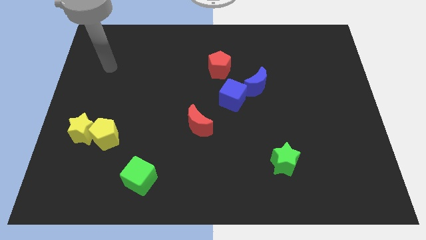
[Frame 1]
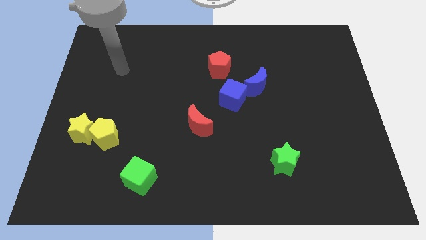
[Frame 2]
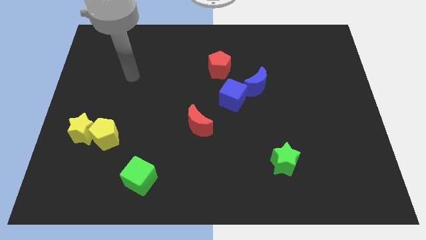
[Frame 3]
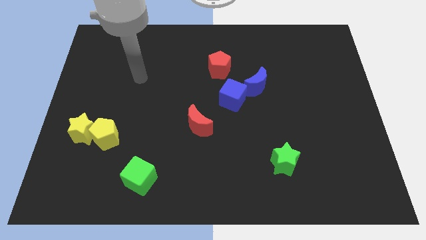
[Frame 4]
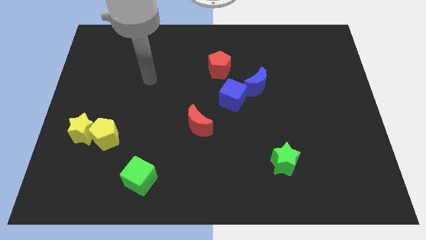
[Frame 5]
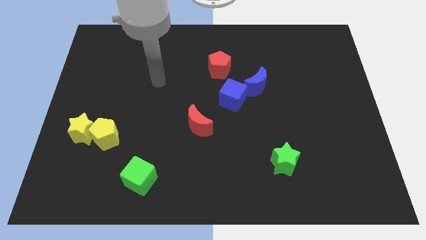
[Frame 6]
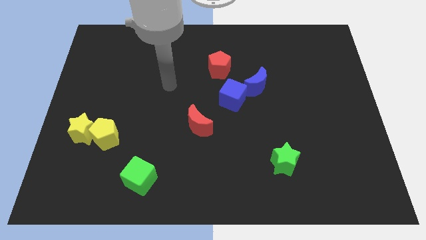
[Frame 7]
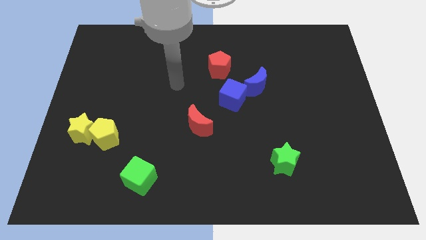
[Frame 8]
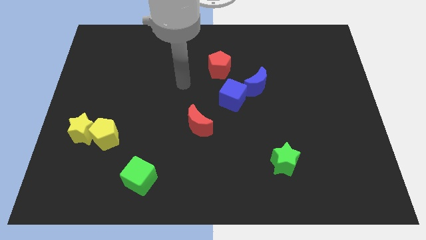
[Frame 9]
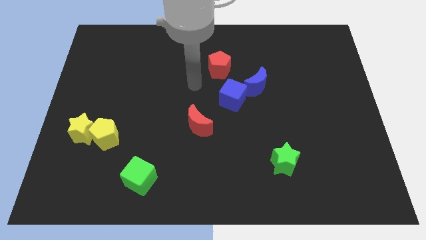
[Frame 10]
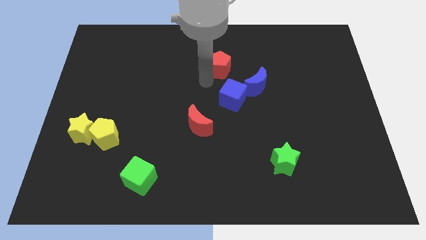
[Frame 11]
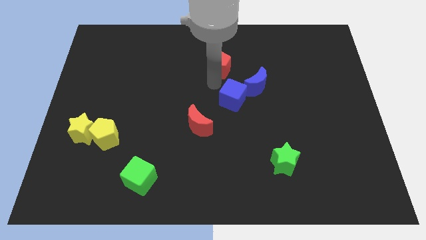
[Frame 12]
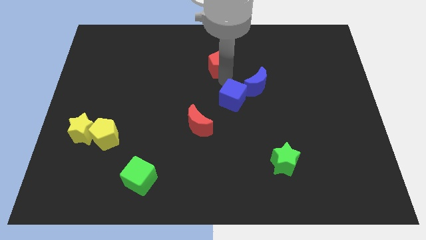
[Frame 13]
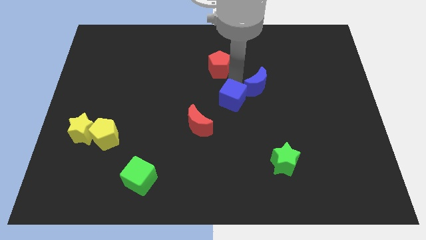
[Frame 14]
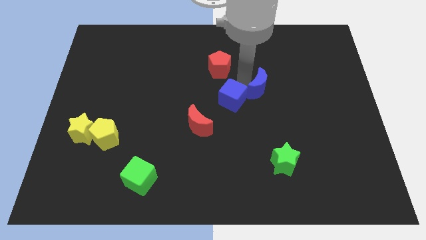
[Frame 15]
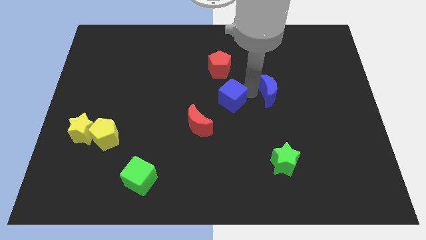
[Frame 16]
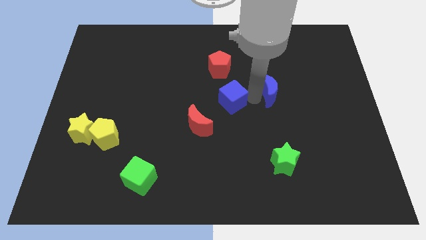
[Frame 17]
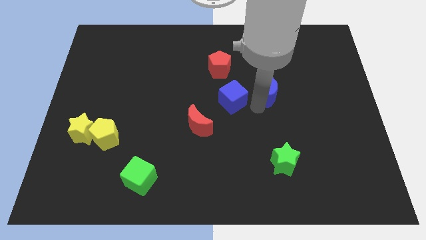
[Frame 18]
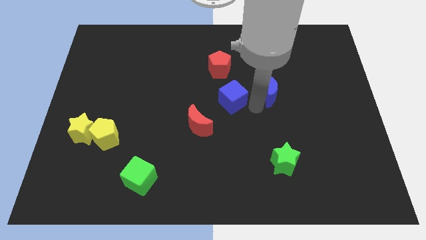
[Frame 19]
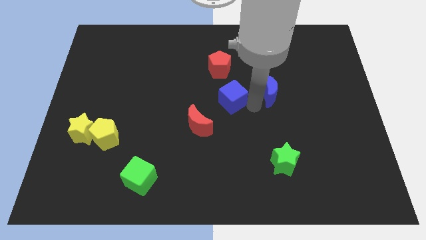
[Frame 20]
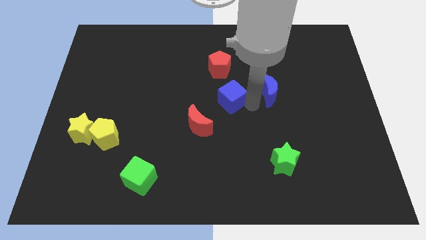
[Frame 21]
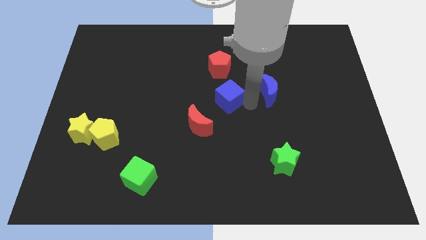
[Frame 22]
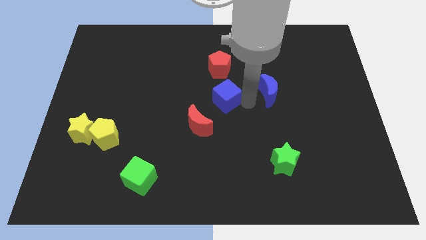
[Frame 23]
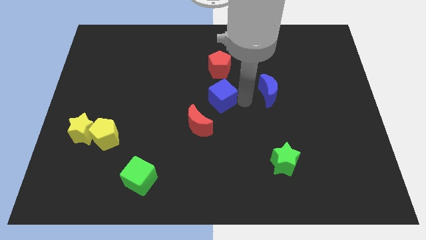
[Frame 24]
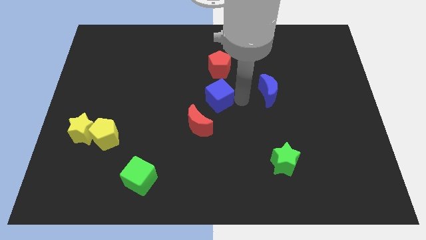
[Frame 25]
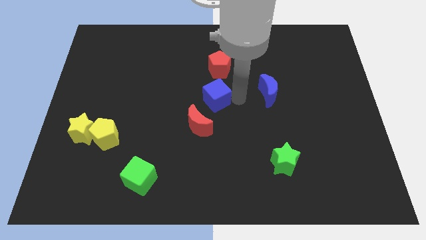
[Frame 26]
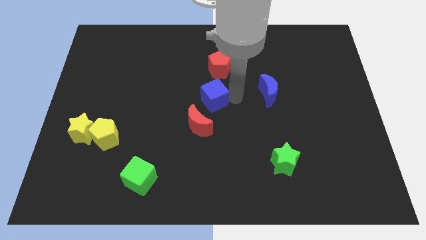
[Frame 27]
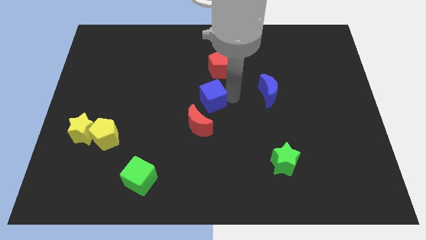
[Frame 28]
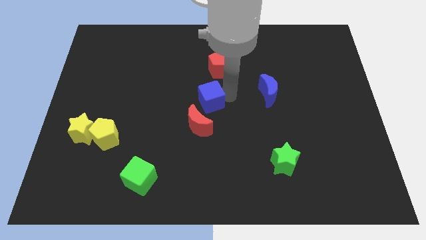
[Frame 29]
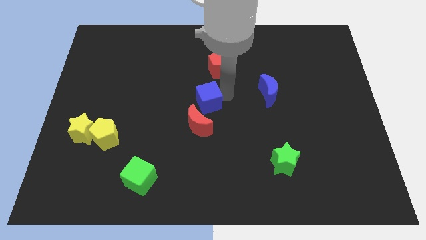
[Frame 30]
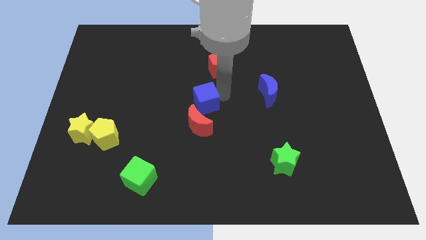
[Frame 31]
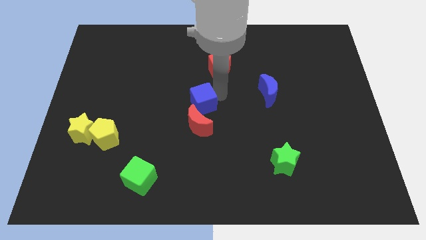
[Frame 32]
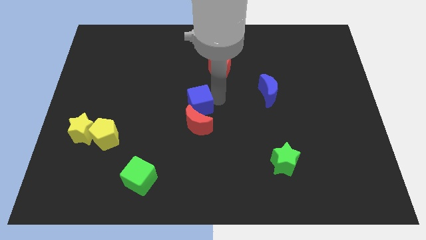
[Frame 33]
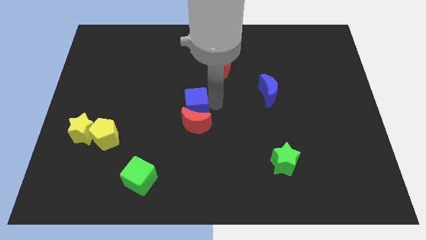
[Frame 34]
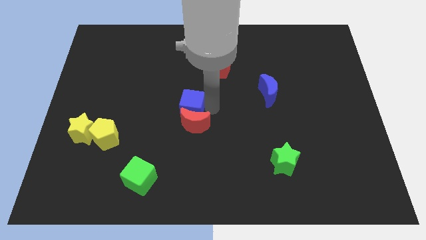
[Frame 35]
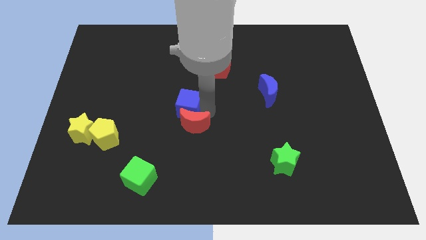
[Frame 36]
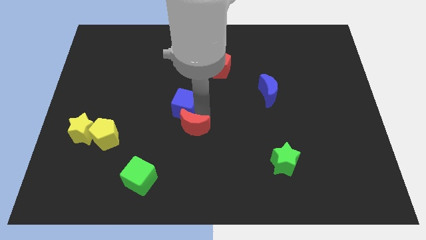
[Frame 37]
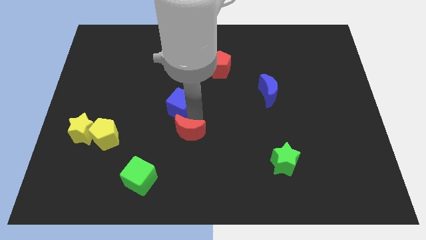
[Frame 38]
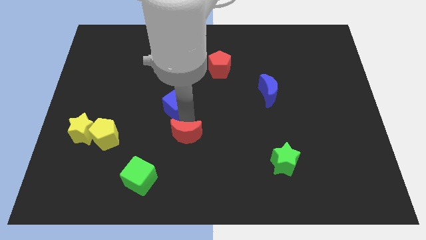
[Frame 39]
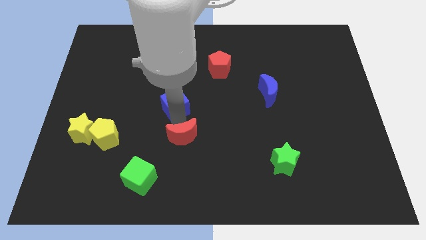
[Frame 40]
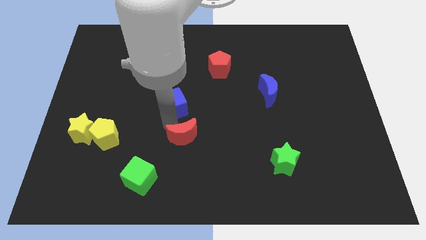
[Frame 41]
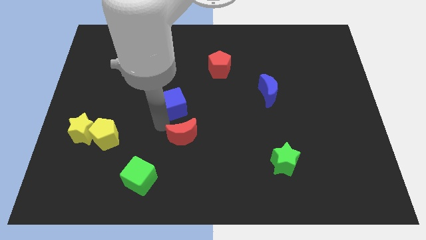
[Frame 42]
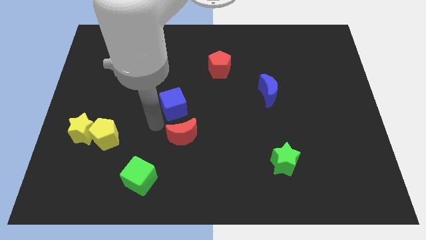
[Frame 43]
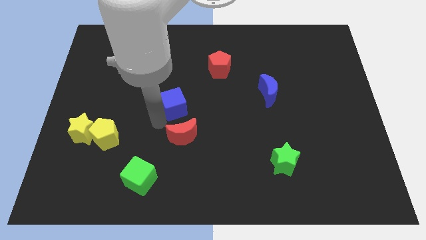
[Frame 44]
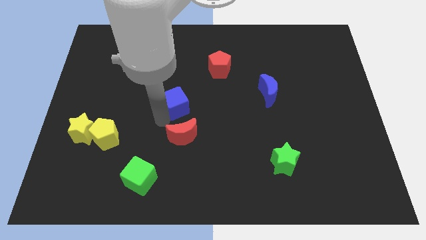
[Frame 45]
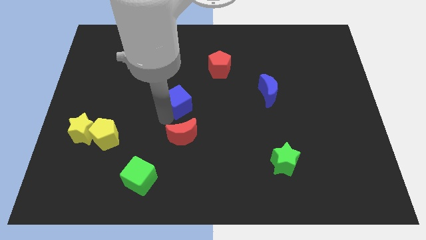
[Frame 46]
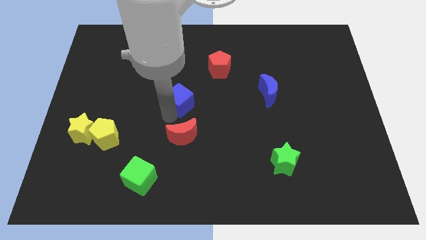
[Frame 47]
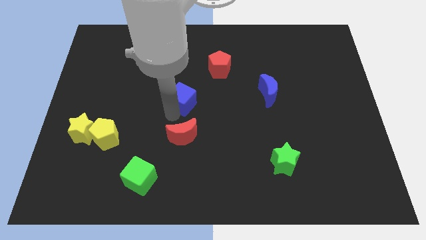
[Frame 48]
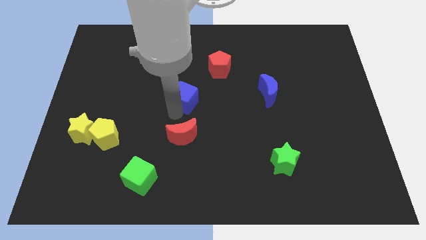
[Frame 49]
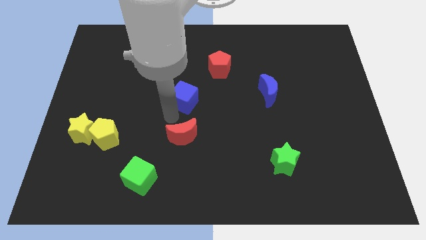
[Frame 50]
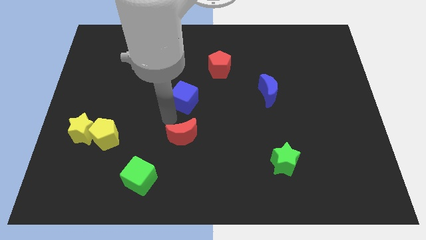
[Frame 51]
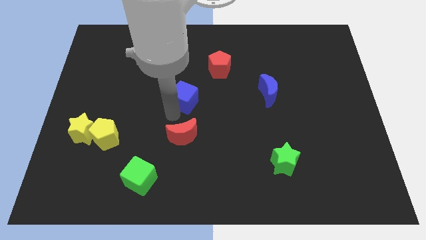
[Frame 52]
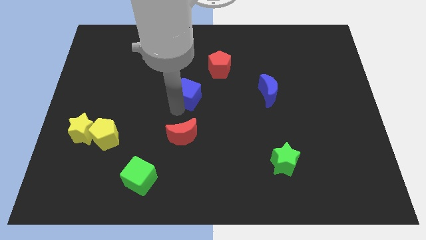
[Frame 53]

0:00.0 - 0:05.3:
put the blue cube to the bottom left of the red pentagon

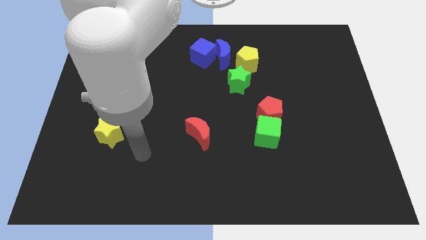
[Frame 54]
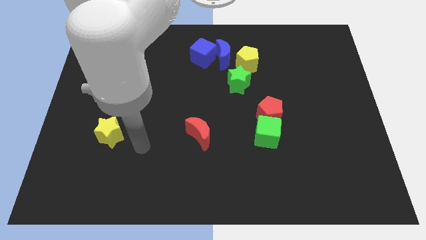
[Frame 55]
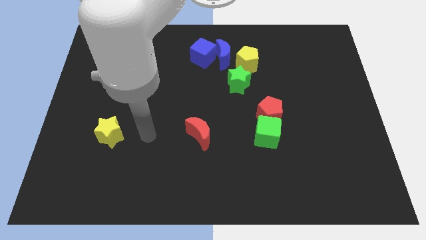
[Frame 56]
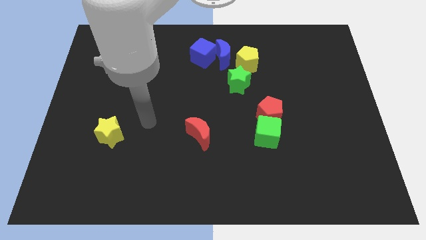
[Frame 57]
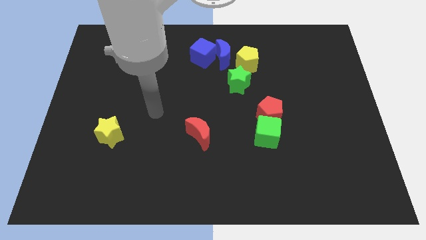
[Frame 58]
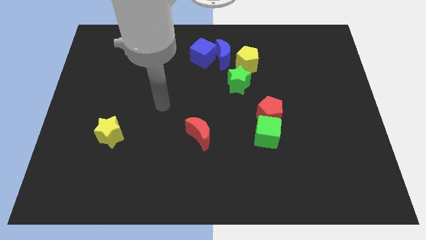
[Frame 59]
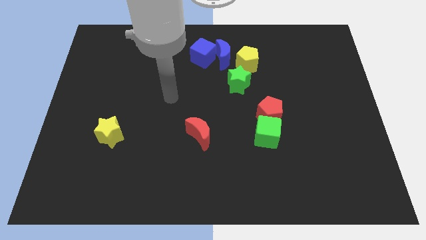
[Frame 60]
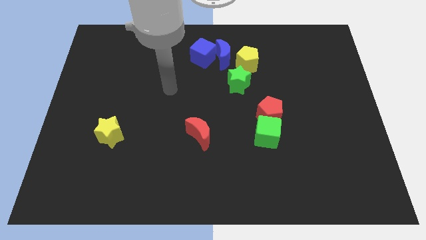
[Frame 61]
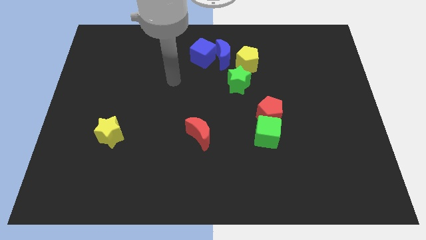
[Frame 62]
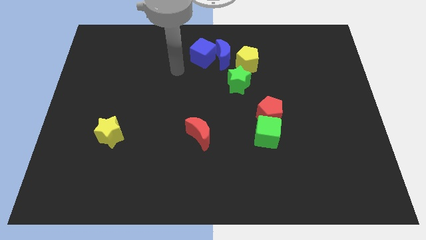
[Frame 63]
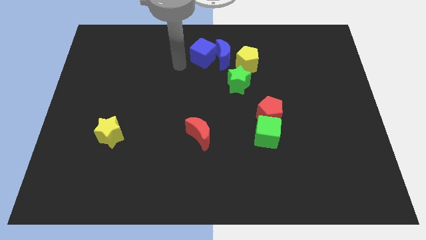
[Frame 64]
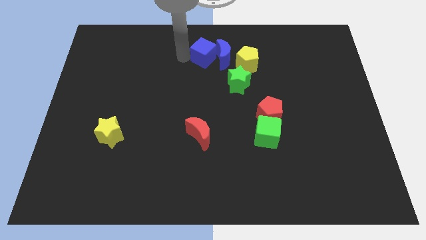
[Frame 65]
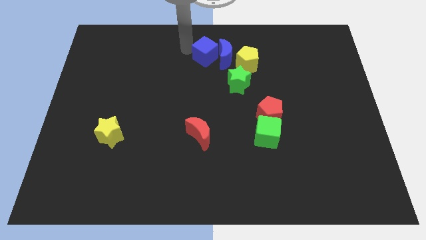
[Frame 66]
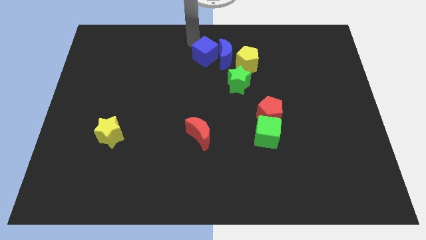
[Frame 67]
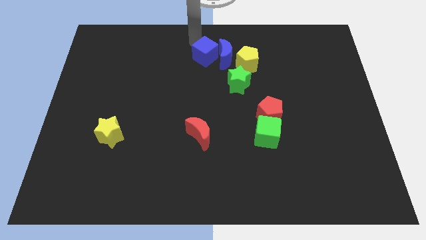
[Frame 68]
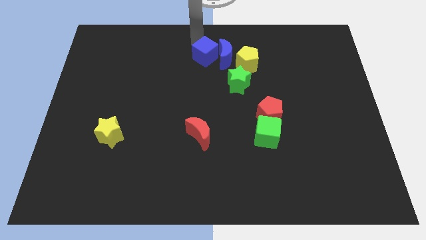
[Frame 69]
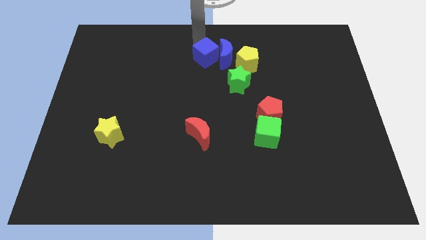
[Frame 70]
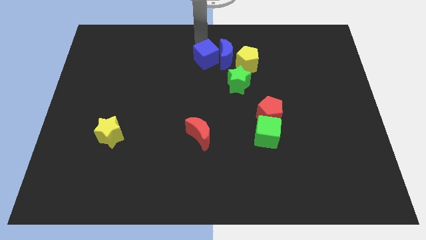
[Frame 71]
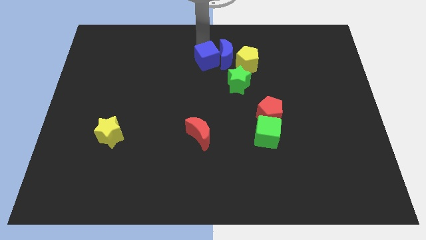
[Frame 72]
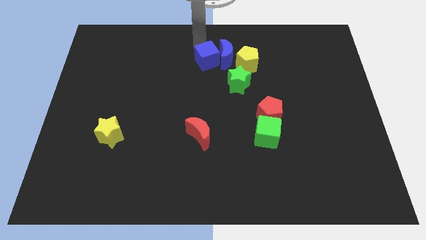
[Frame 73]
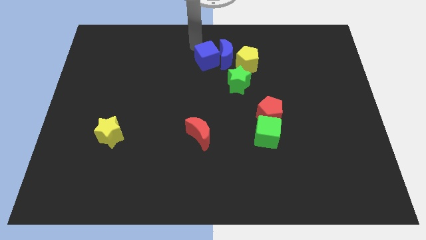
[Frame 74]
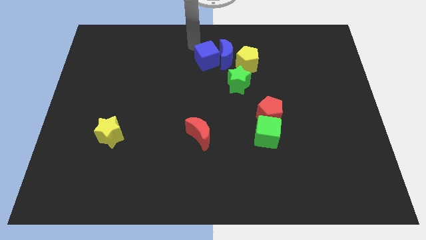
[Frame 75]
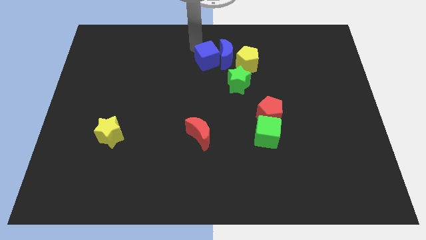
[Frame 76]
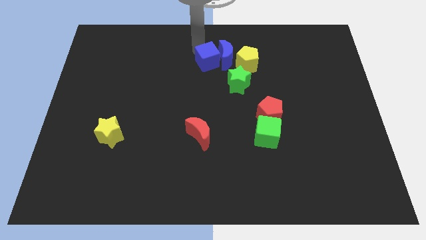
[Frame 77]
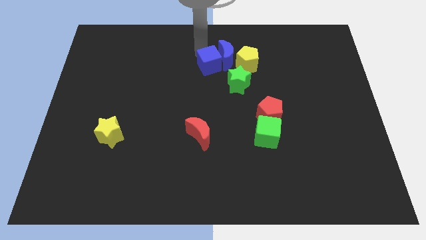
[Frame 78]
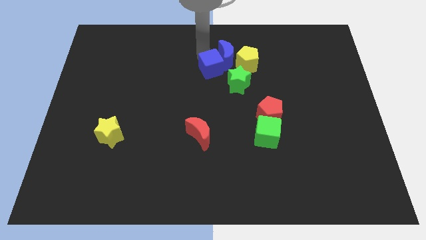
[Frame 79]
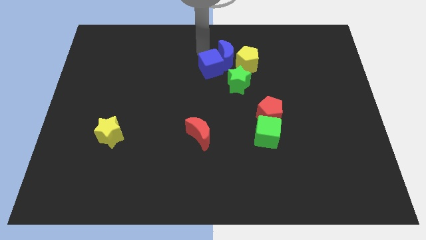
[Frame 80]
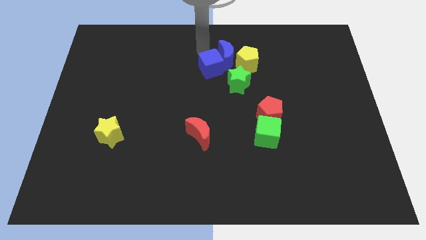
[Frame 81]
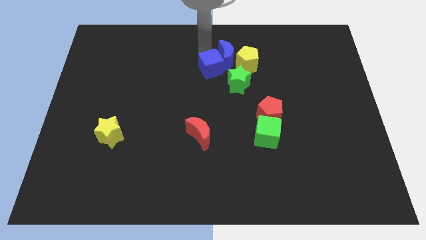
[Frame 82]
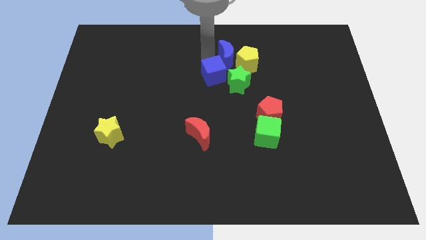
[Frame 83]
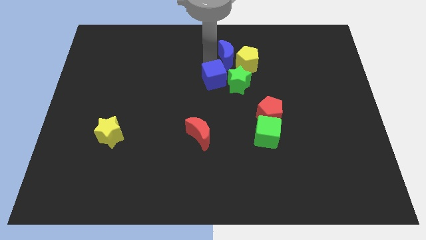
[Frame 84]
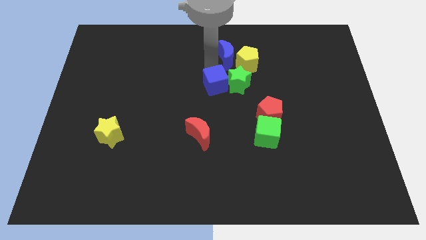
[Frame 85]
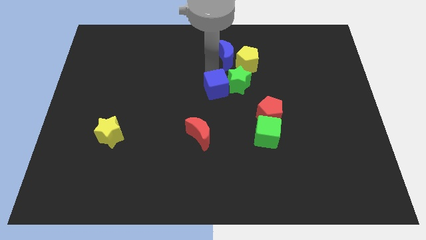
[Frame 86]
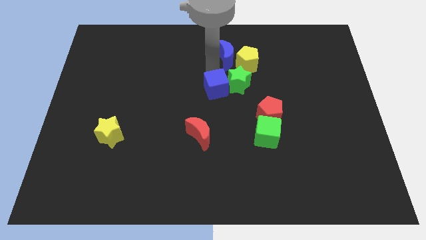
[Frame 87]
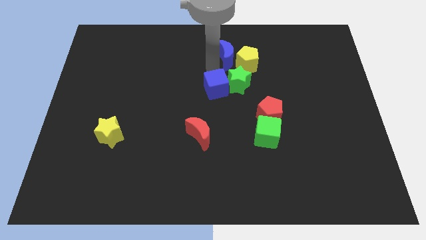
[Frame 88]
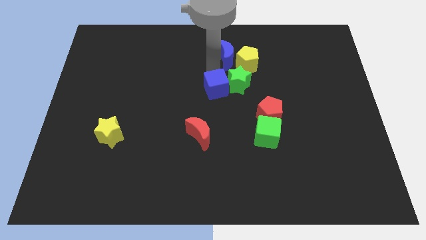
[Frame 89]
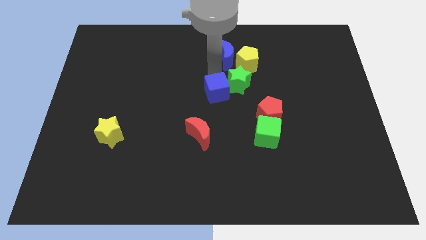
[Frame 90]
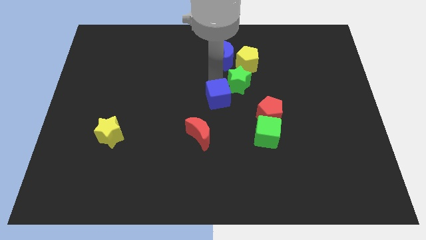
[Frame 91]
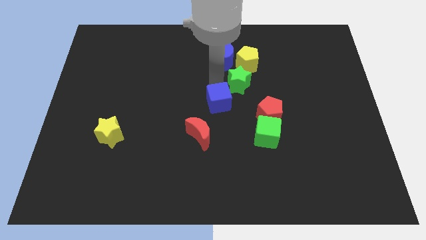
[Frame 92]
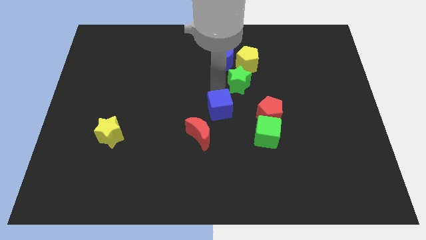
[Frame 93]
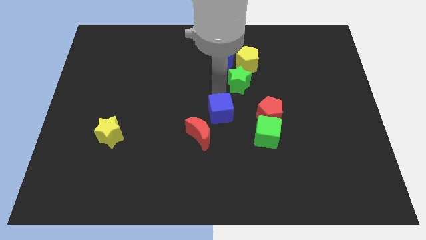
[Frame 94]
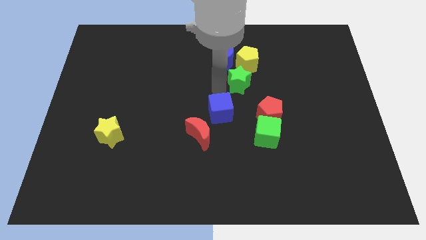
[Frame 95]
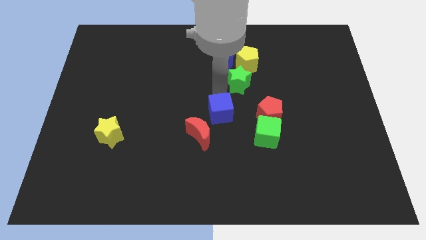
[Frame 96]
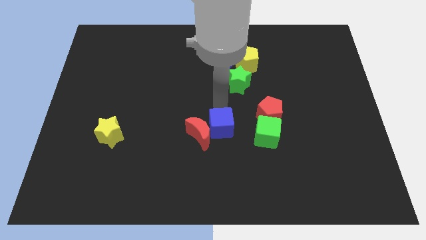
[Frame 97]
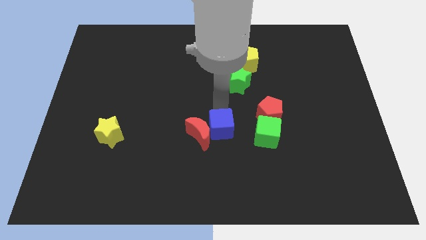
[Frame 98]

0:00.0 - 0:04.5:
push the blue cube to the bottom right side of the red moon
